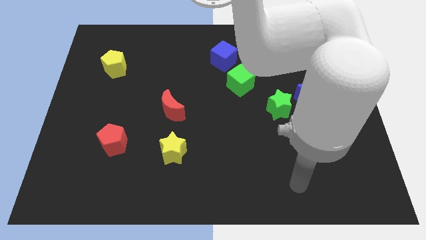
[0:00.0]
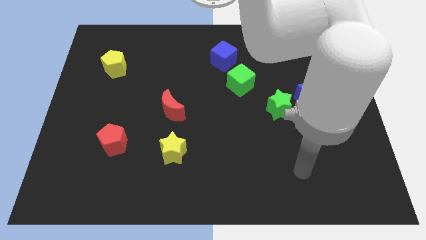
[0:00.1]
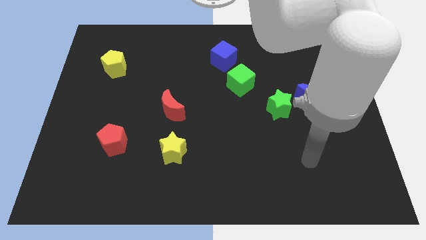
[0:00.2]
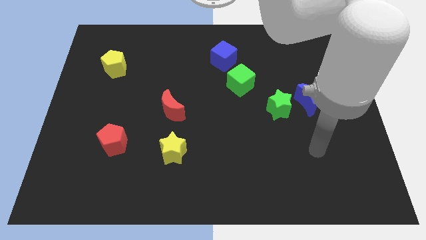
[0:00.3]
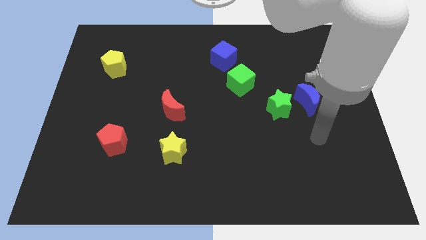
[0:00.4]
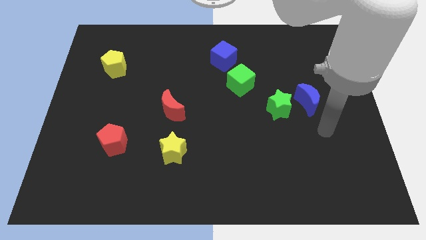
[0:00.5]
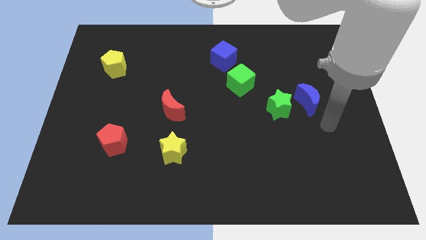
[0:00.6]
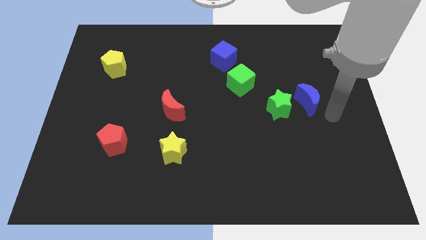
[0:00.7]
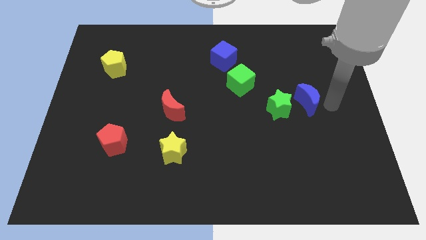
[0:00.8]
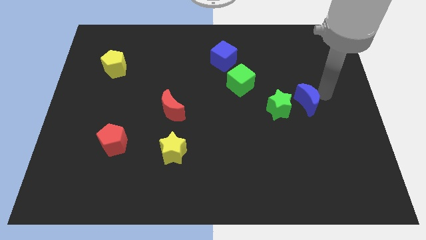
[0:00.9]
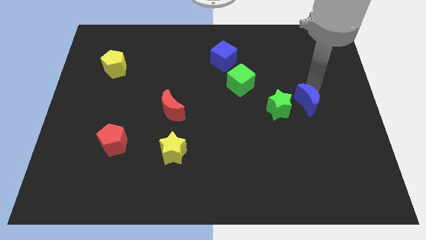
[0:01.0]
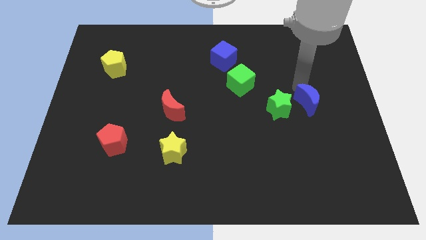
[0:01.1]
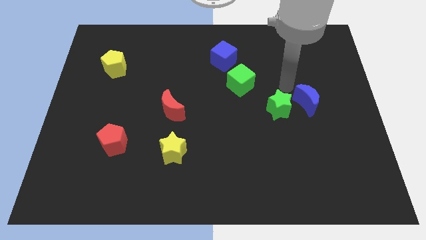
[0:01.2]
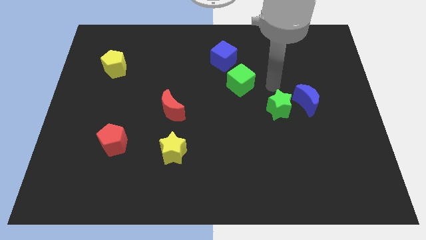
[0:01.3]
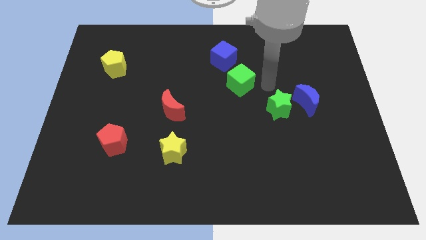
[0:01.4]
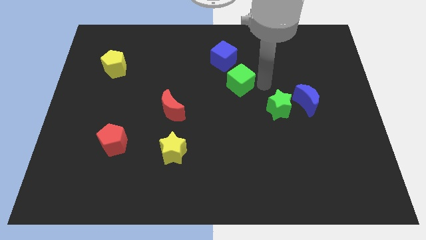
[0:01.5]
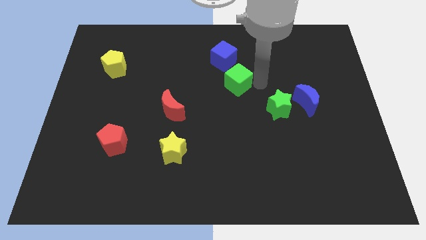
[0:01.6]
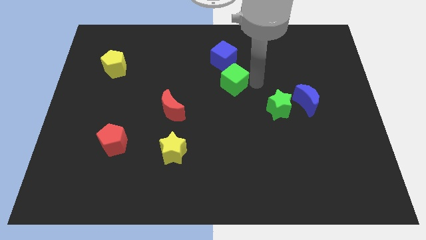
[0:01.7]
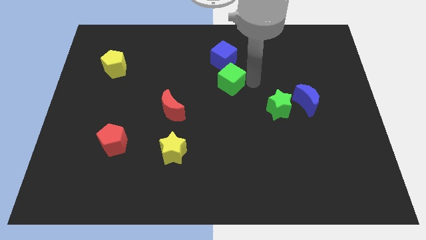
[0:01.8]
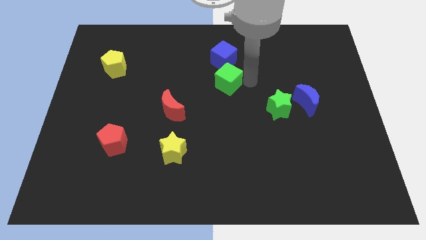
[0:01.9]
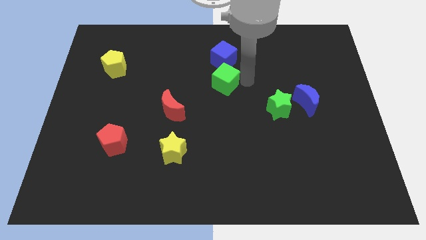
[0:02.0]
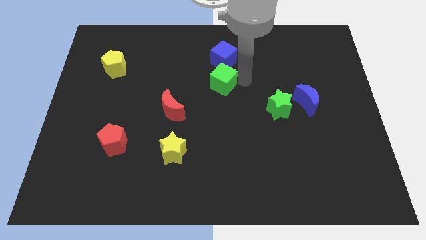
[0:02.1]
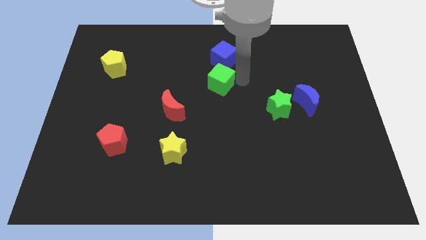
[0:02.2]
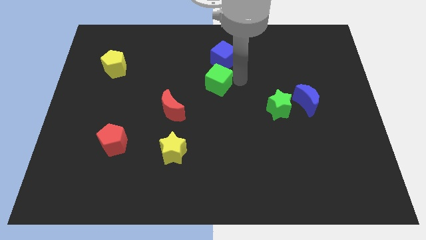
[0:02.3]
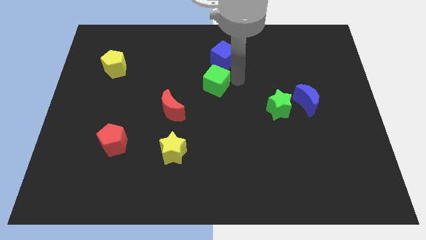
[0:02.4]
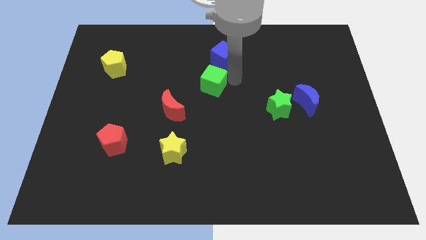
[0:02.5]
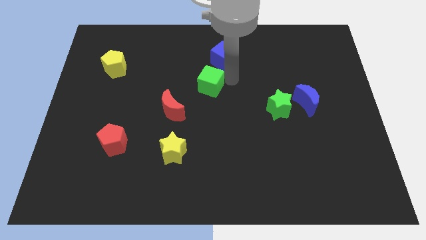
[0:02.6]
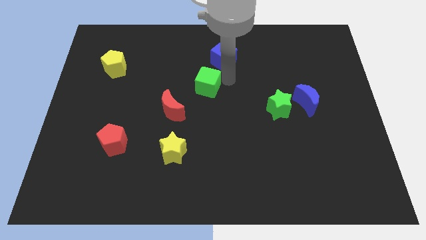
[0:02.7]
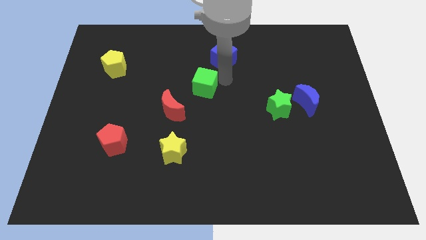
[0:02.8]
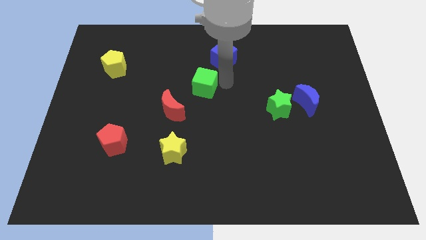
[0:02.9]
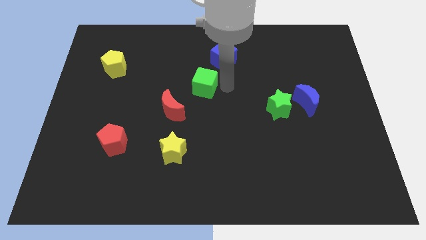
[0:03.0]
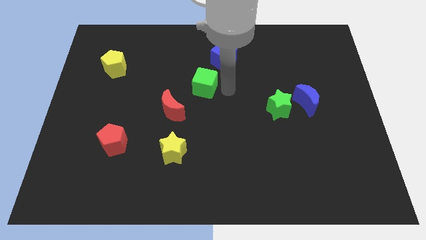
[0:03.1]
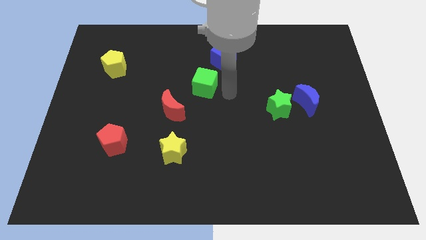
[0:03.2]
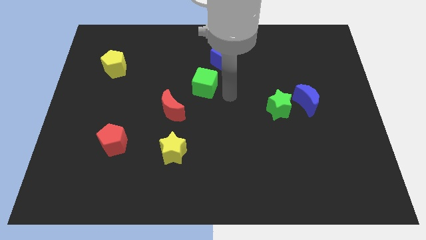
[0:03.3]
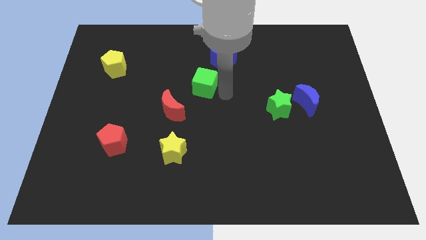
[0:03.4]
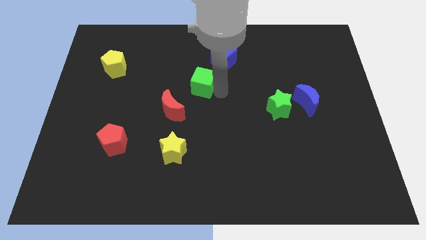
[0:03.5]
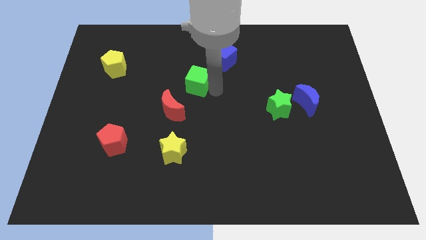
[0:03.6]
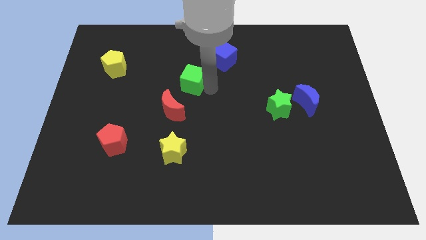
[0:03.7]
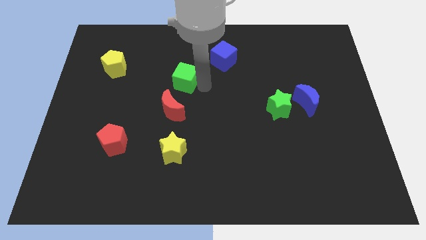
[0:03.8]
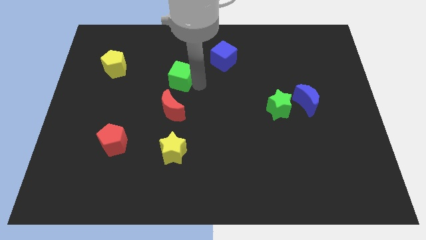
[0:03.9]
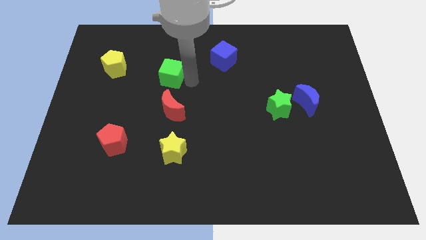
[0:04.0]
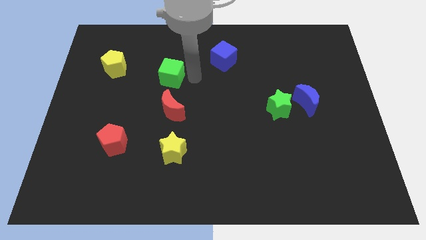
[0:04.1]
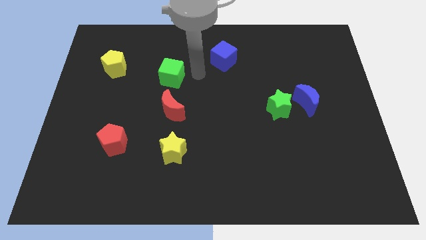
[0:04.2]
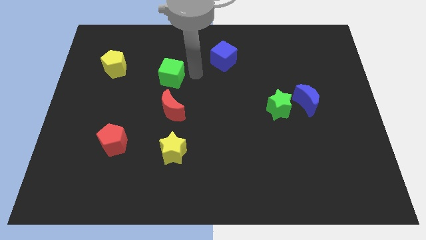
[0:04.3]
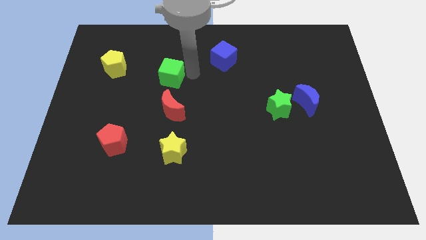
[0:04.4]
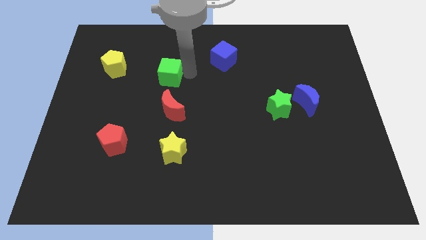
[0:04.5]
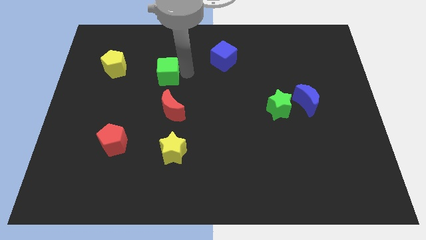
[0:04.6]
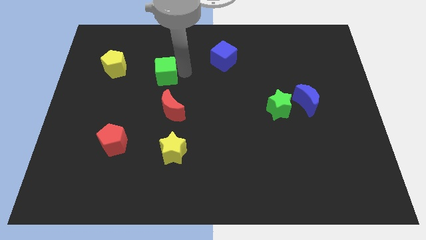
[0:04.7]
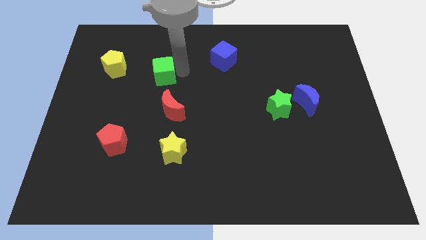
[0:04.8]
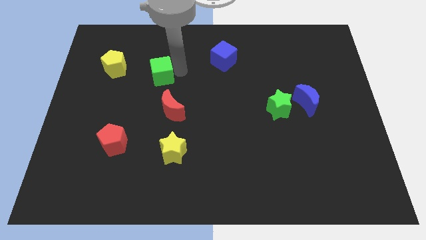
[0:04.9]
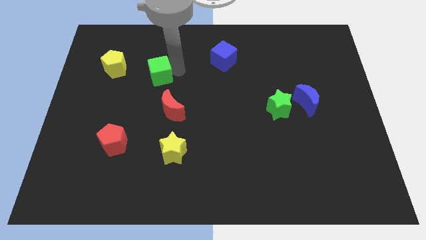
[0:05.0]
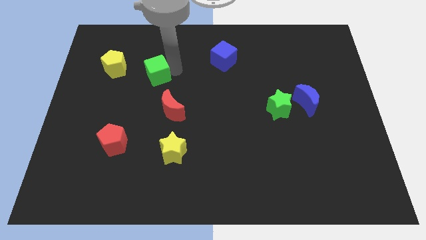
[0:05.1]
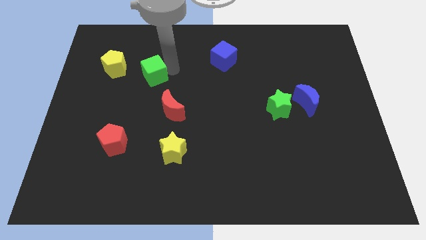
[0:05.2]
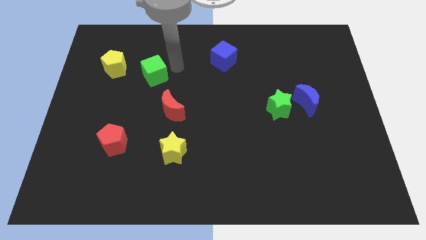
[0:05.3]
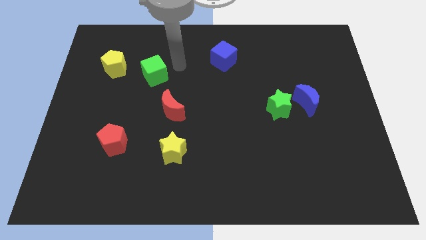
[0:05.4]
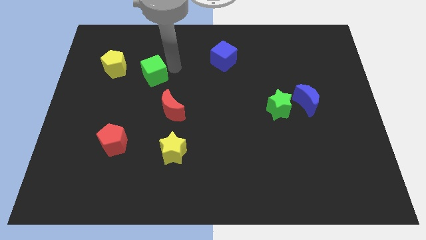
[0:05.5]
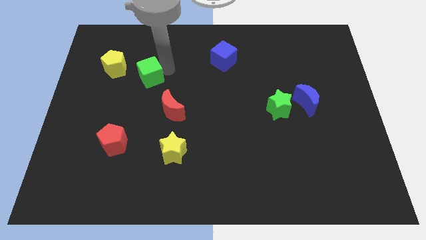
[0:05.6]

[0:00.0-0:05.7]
move the green cube diagonally down and to the right of the yellow pentagon

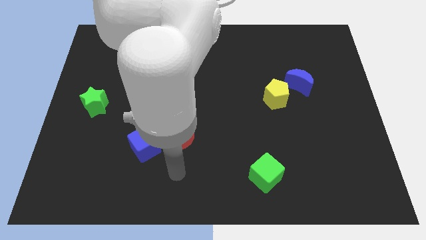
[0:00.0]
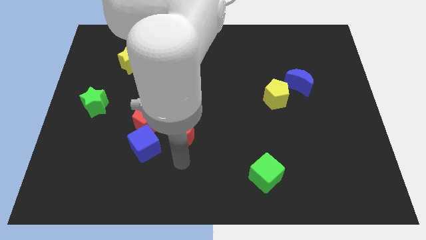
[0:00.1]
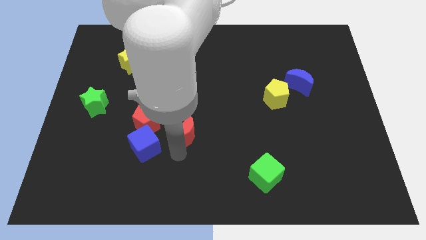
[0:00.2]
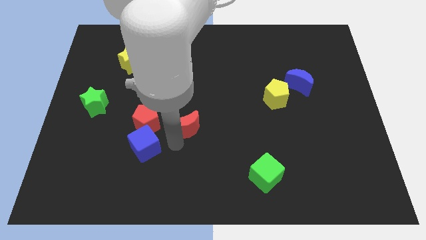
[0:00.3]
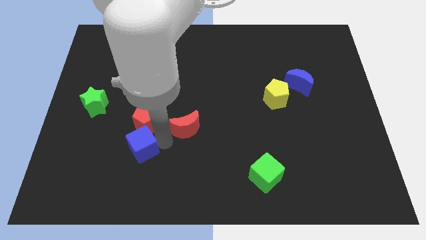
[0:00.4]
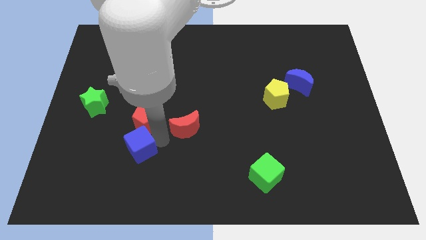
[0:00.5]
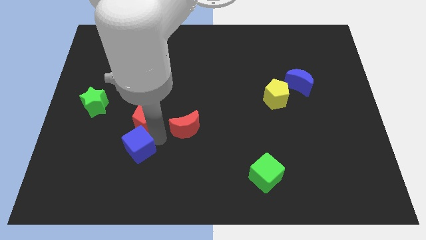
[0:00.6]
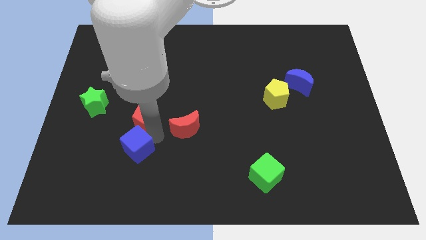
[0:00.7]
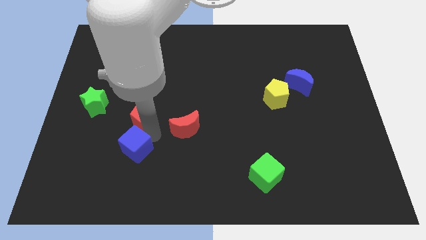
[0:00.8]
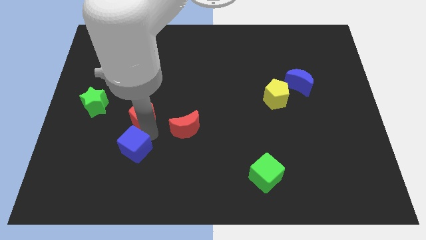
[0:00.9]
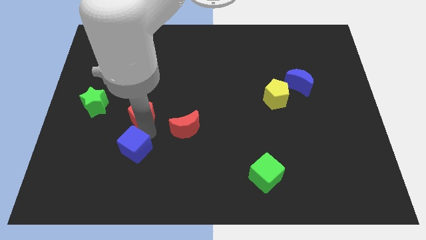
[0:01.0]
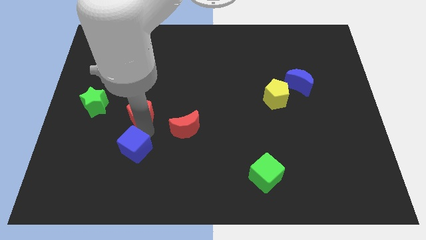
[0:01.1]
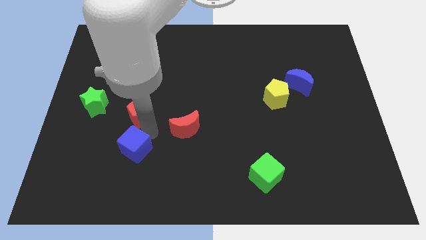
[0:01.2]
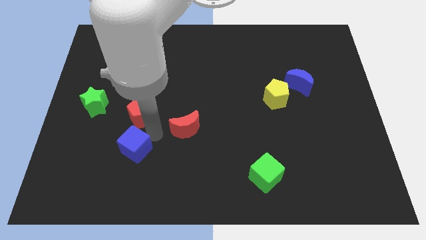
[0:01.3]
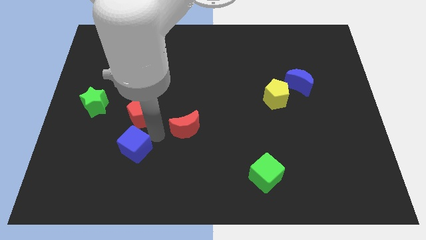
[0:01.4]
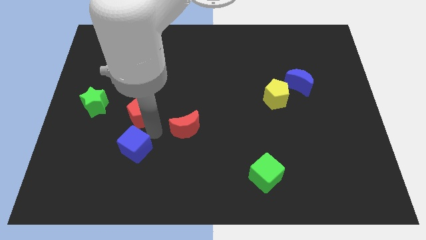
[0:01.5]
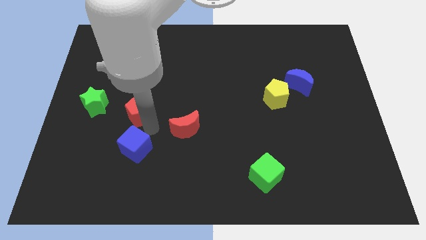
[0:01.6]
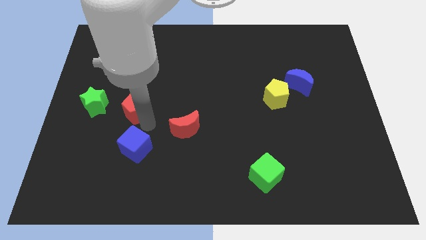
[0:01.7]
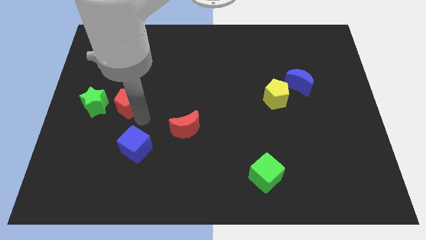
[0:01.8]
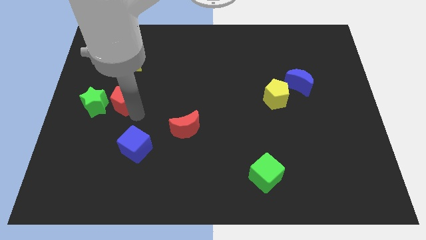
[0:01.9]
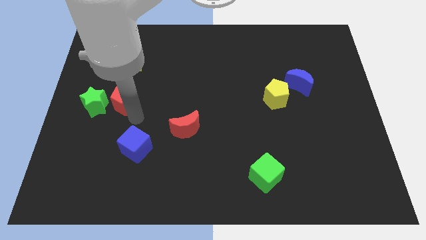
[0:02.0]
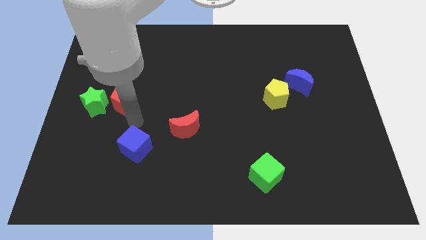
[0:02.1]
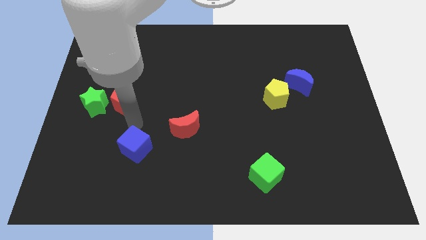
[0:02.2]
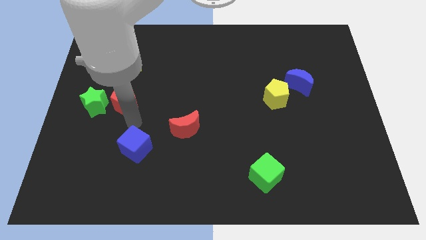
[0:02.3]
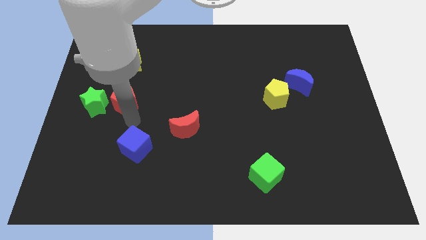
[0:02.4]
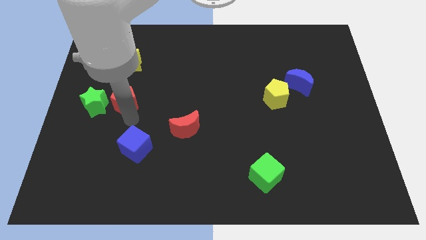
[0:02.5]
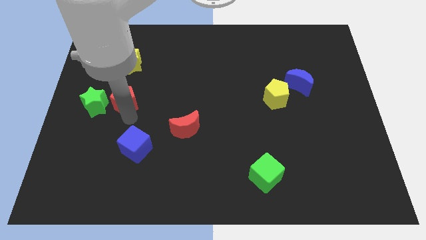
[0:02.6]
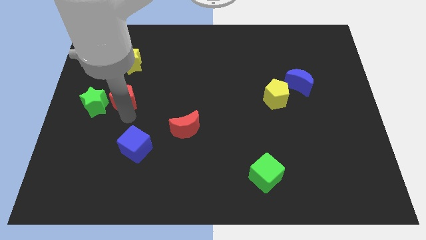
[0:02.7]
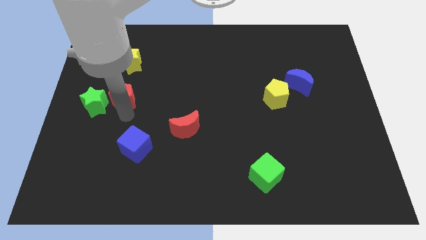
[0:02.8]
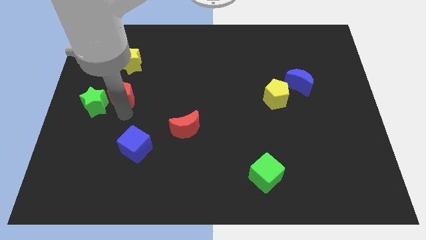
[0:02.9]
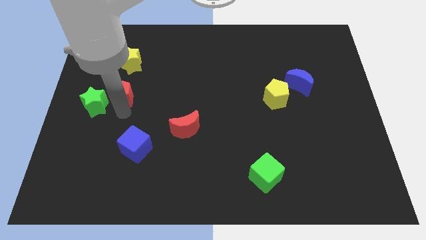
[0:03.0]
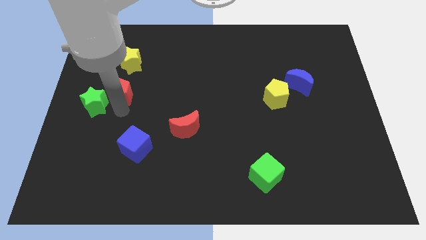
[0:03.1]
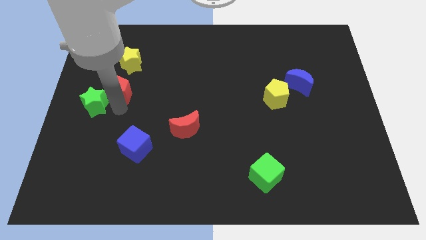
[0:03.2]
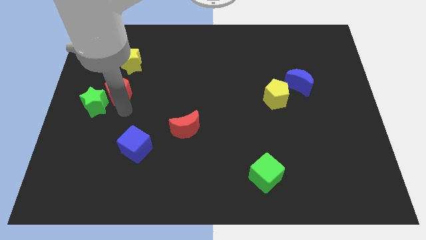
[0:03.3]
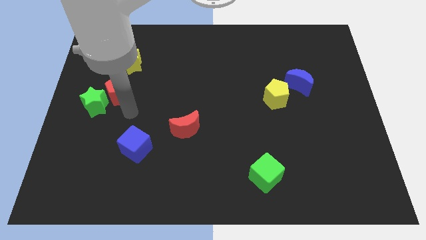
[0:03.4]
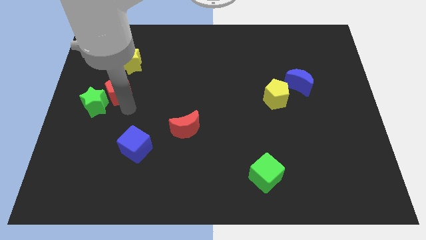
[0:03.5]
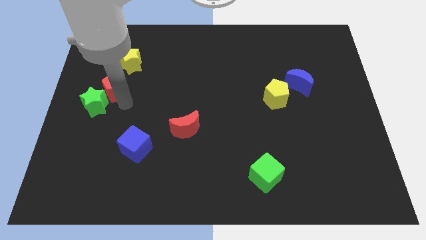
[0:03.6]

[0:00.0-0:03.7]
move the red pentagon to the bottom left side of the yellow star
